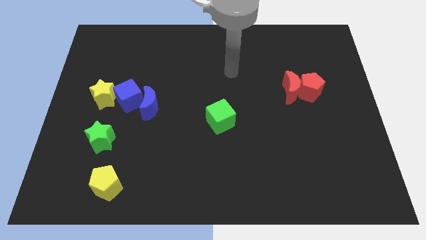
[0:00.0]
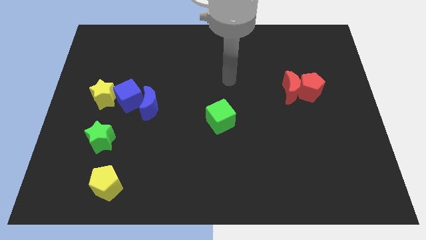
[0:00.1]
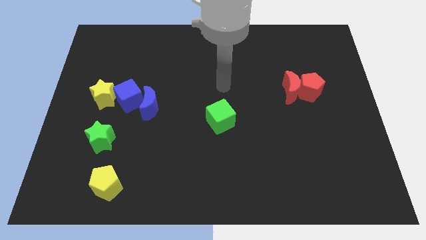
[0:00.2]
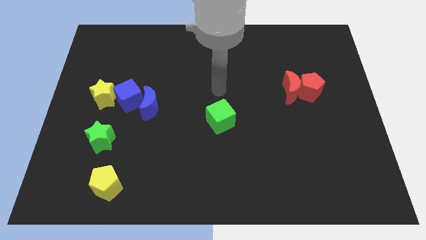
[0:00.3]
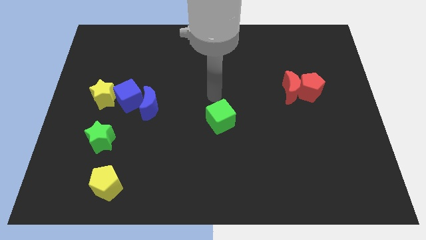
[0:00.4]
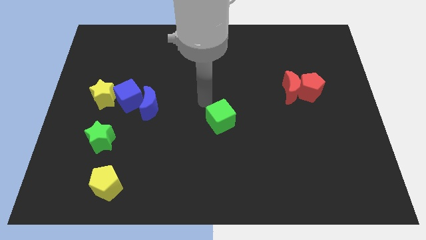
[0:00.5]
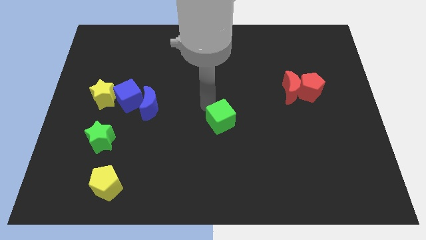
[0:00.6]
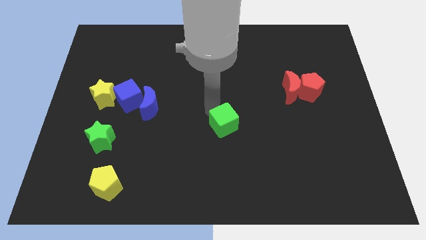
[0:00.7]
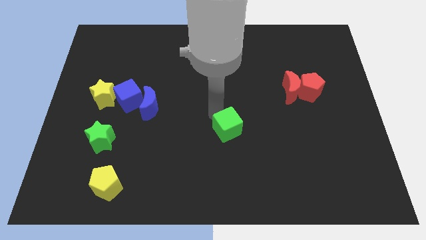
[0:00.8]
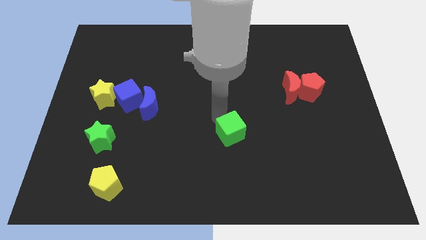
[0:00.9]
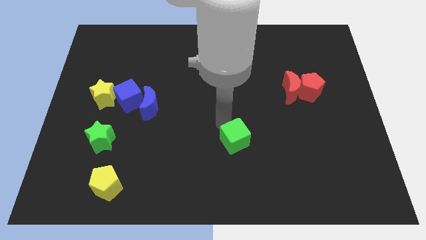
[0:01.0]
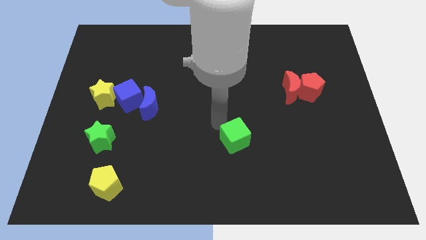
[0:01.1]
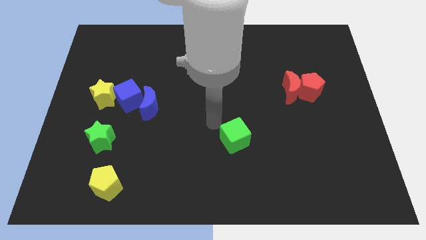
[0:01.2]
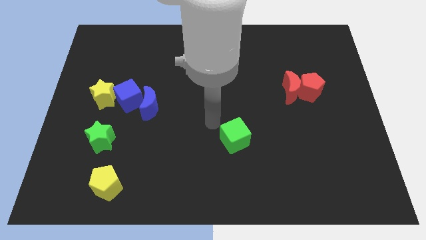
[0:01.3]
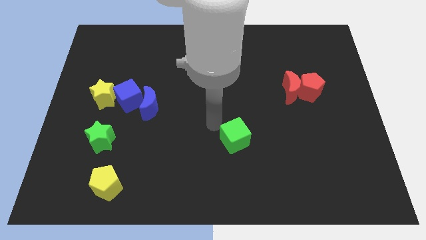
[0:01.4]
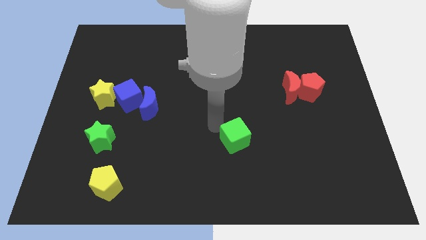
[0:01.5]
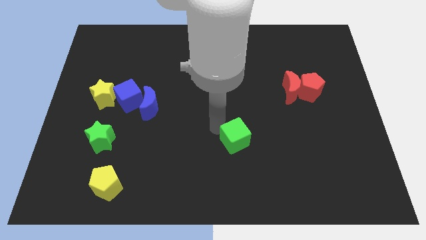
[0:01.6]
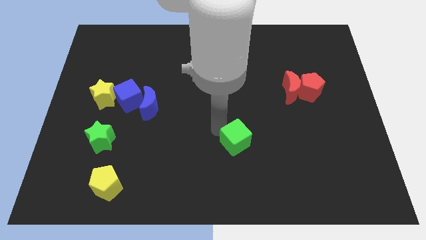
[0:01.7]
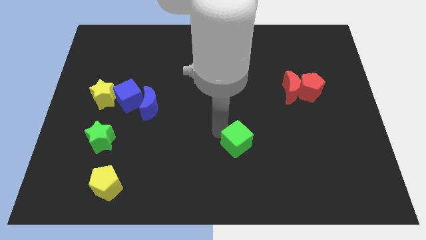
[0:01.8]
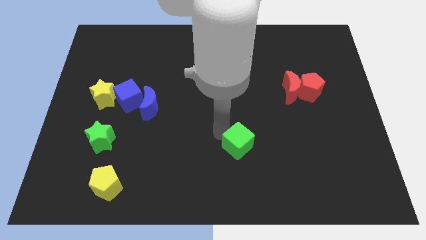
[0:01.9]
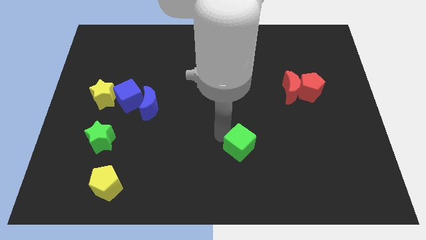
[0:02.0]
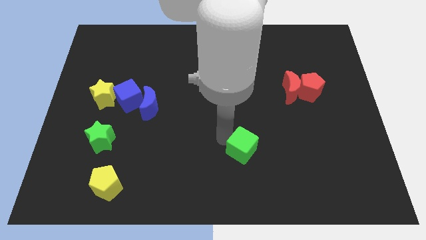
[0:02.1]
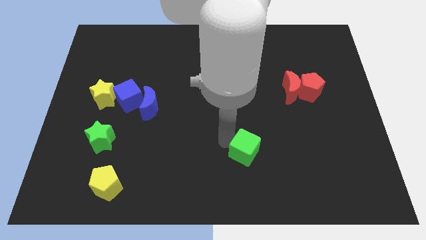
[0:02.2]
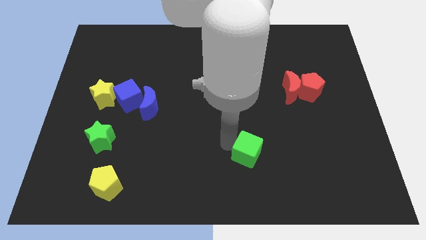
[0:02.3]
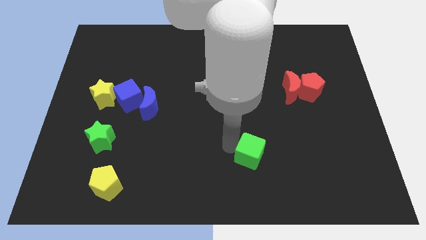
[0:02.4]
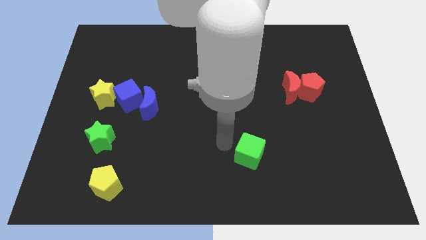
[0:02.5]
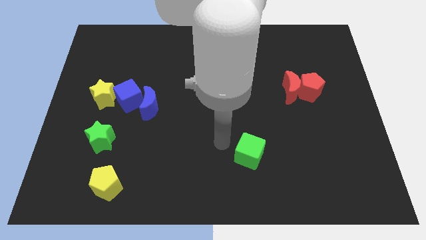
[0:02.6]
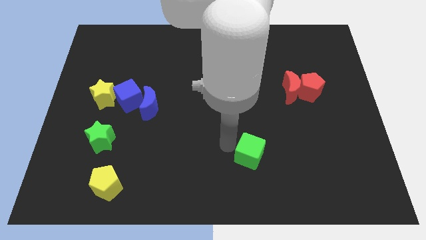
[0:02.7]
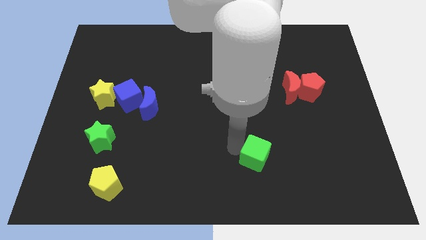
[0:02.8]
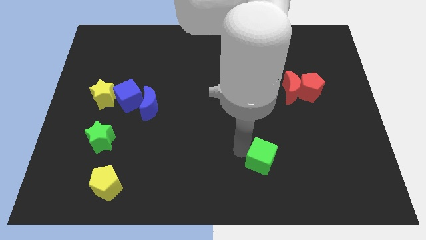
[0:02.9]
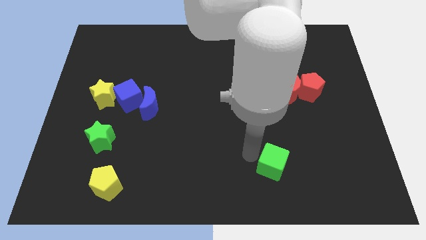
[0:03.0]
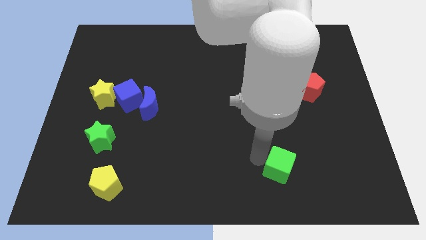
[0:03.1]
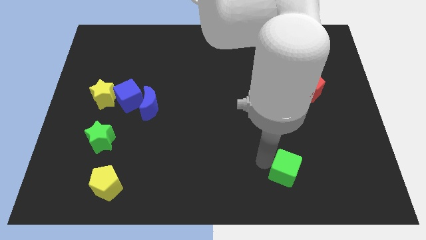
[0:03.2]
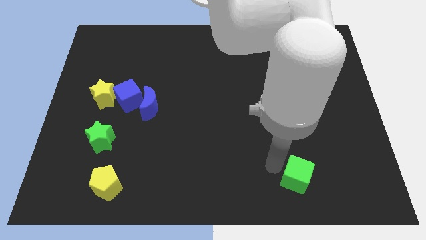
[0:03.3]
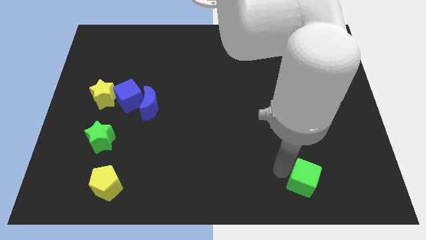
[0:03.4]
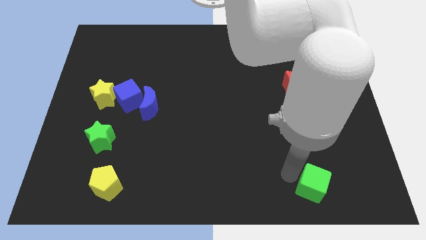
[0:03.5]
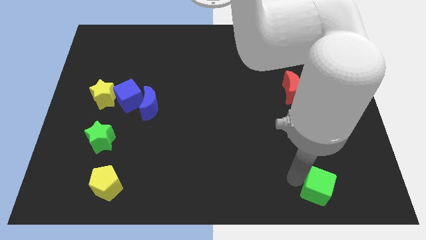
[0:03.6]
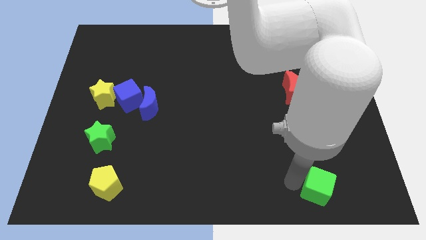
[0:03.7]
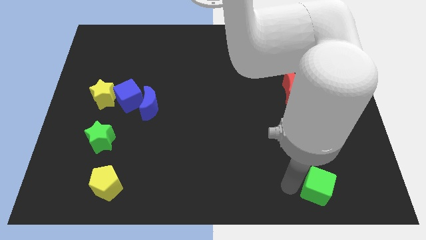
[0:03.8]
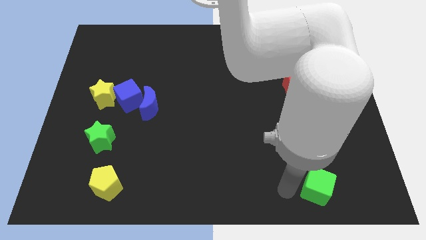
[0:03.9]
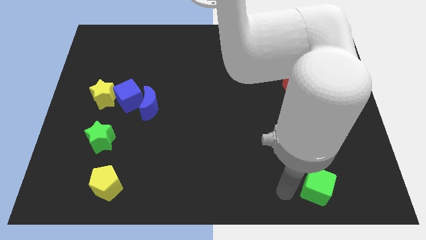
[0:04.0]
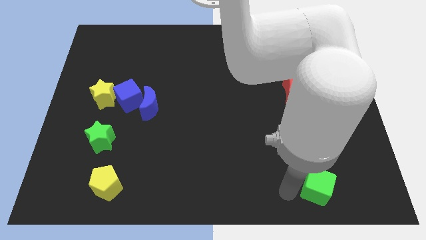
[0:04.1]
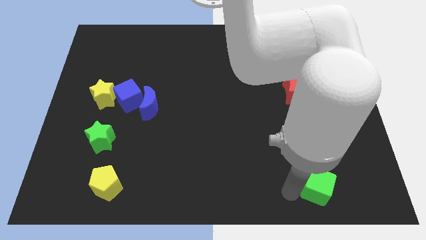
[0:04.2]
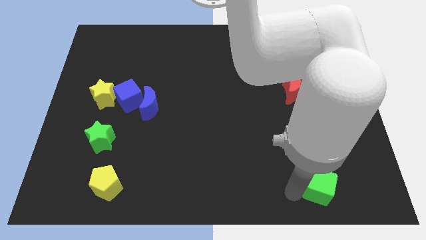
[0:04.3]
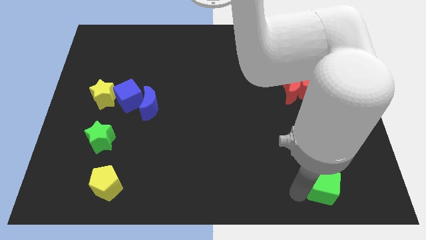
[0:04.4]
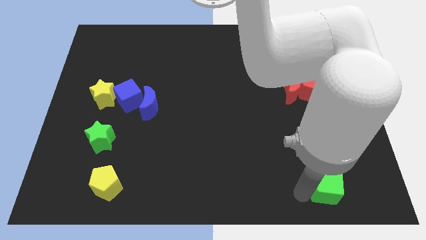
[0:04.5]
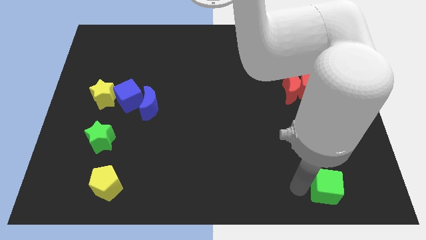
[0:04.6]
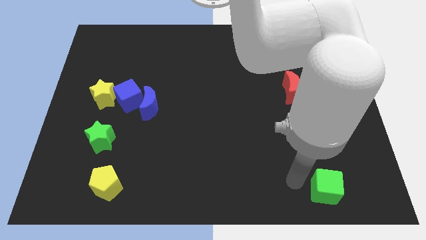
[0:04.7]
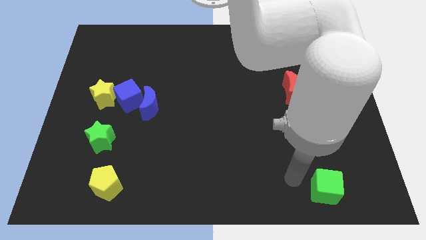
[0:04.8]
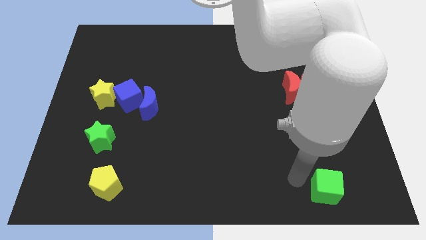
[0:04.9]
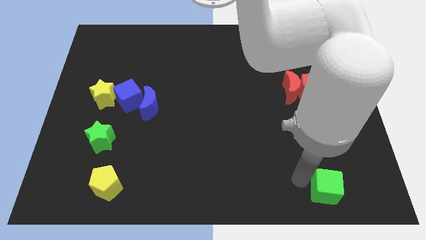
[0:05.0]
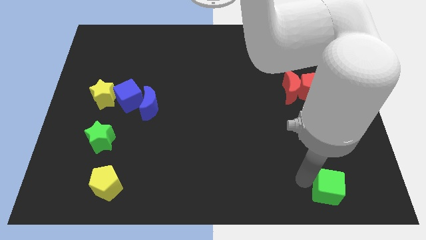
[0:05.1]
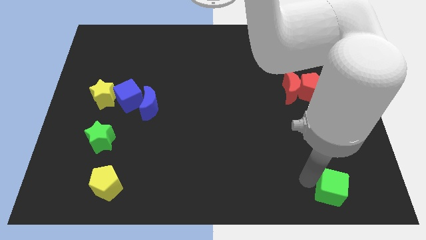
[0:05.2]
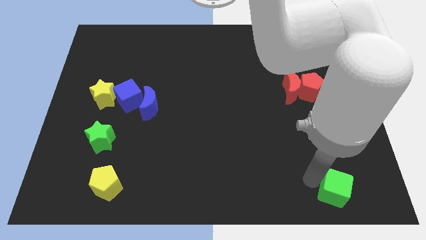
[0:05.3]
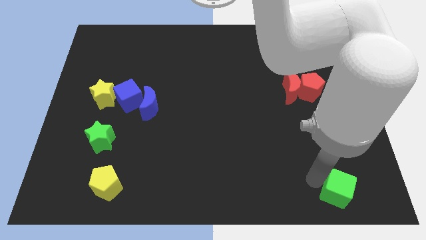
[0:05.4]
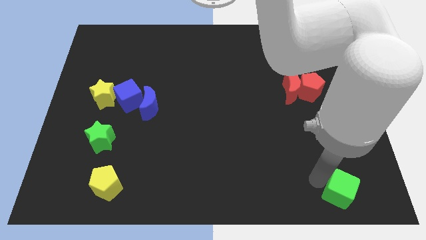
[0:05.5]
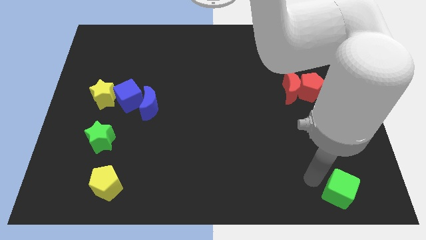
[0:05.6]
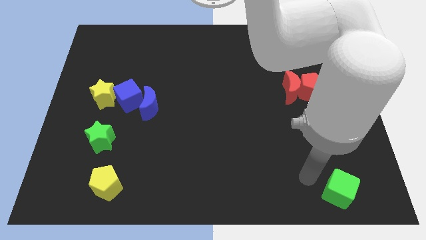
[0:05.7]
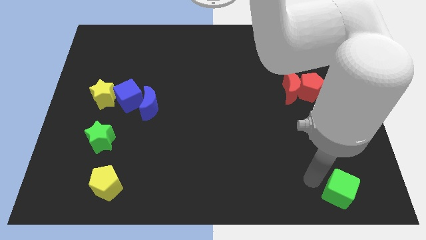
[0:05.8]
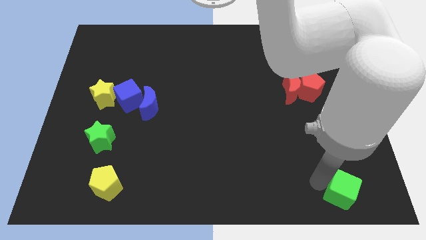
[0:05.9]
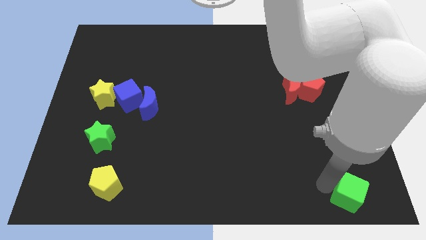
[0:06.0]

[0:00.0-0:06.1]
put the green cube to the lower right corner
